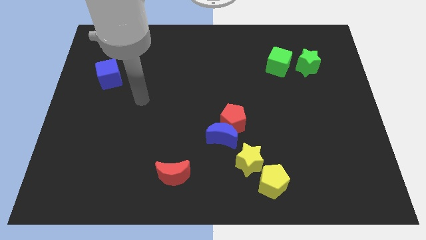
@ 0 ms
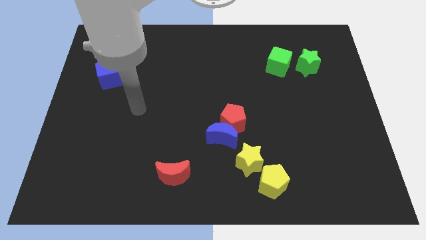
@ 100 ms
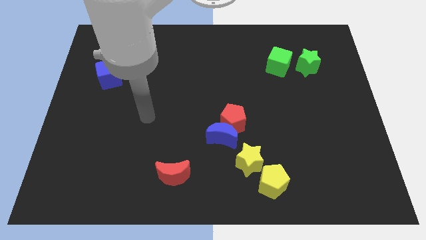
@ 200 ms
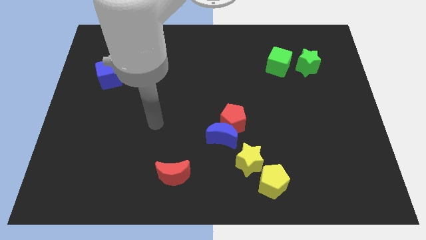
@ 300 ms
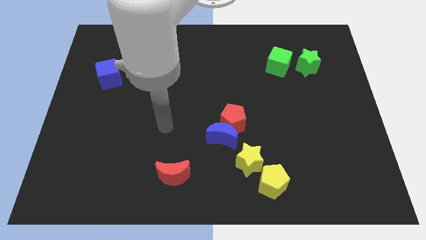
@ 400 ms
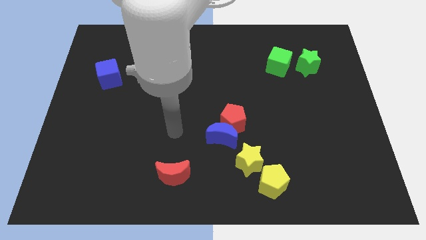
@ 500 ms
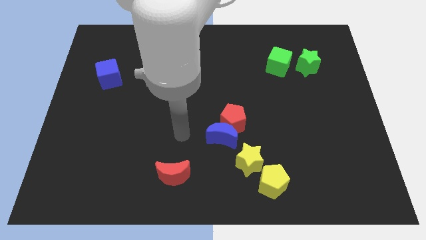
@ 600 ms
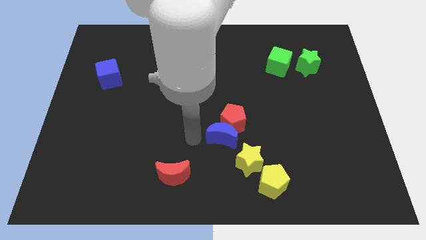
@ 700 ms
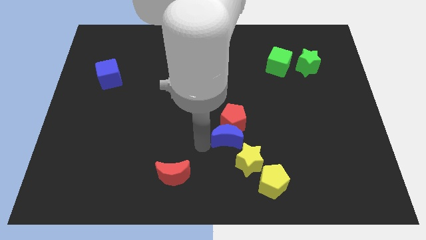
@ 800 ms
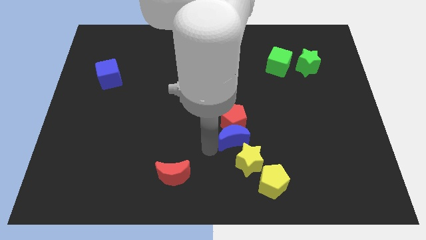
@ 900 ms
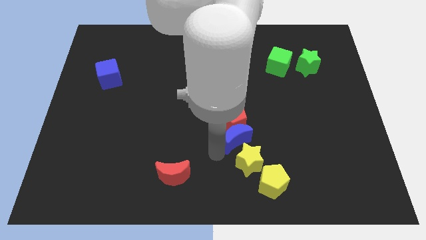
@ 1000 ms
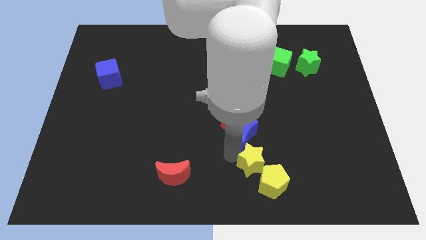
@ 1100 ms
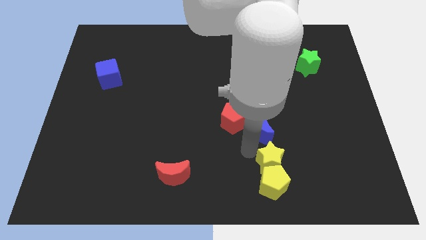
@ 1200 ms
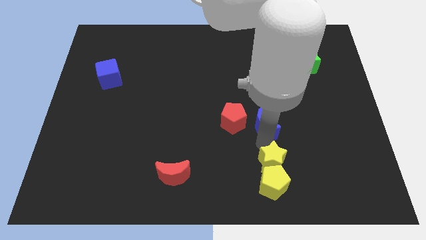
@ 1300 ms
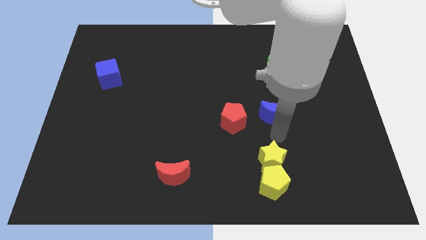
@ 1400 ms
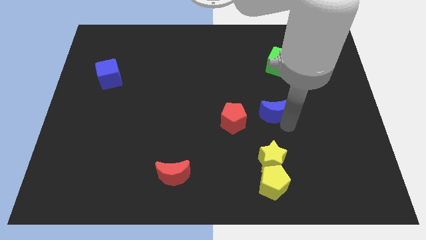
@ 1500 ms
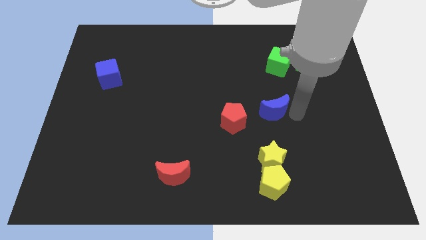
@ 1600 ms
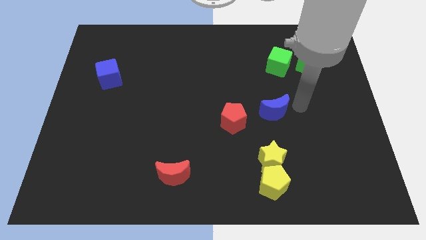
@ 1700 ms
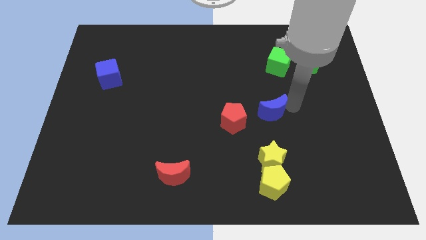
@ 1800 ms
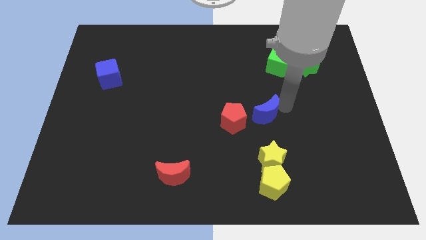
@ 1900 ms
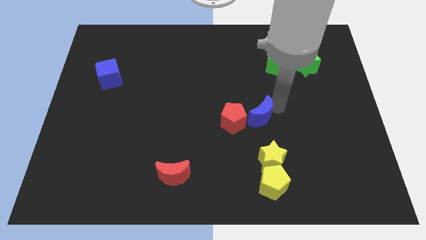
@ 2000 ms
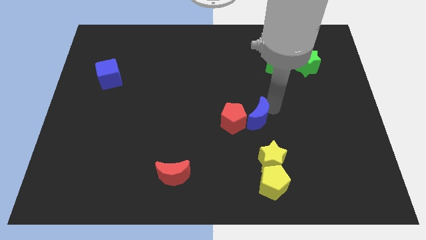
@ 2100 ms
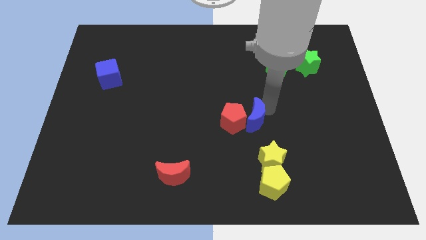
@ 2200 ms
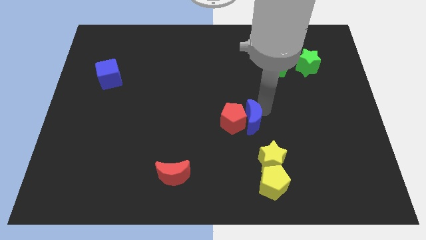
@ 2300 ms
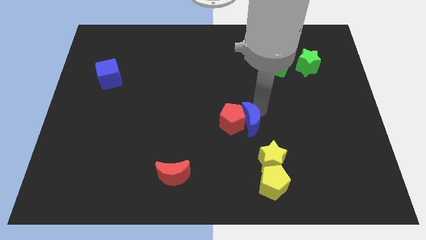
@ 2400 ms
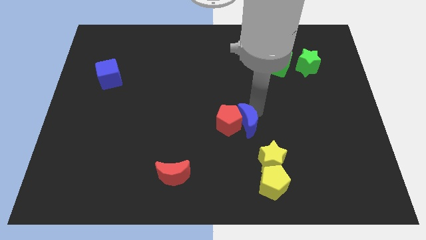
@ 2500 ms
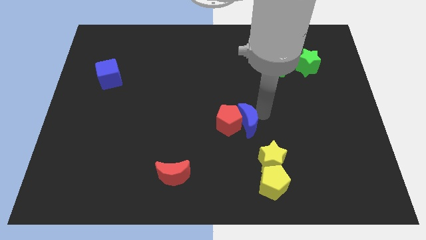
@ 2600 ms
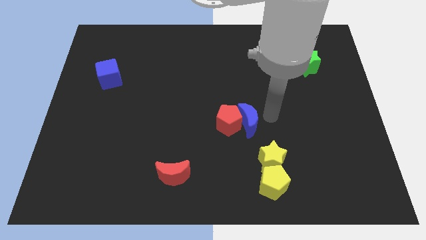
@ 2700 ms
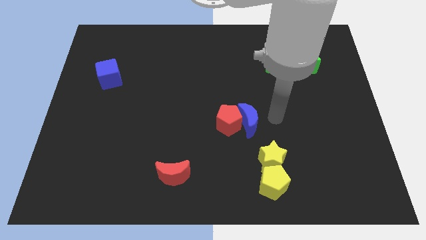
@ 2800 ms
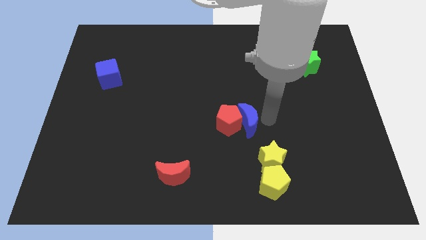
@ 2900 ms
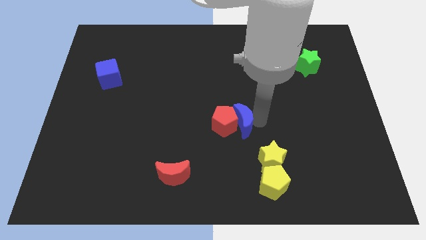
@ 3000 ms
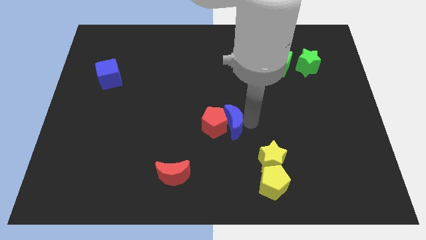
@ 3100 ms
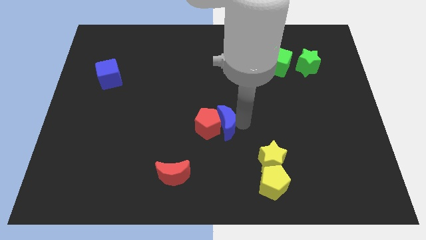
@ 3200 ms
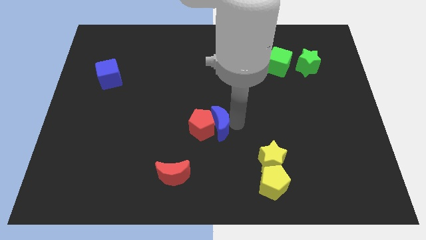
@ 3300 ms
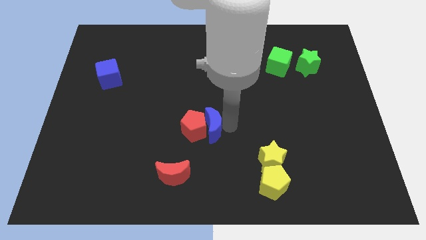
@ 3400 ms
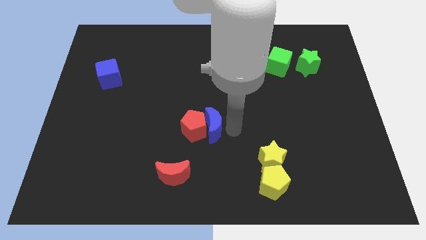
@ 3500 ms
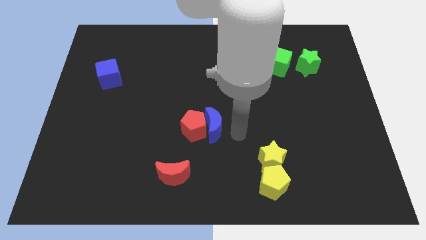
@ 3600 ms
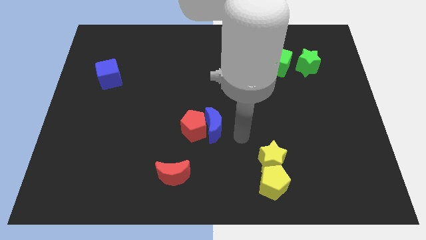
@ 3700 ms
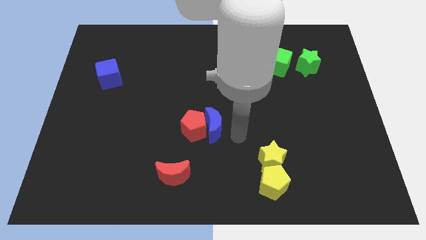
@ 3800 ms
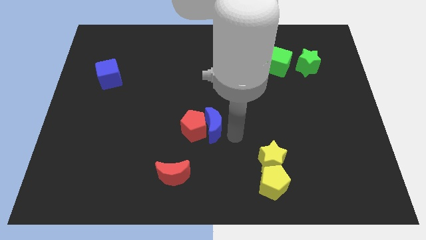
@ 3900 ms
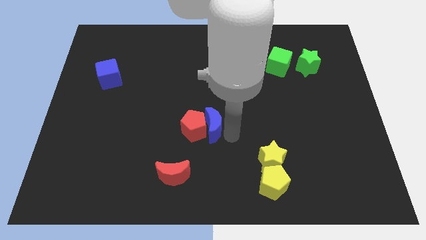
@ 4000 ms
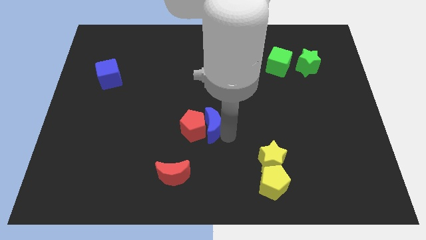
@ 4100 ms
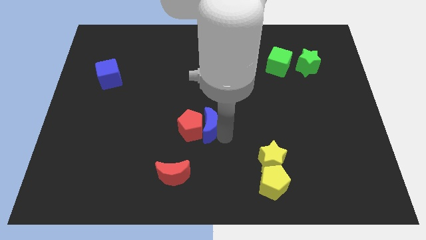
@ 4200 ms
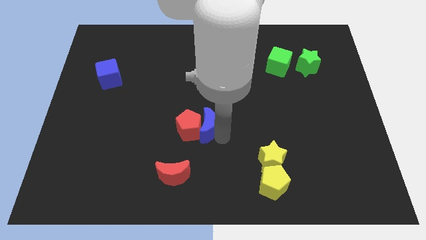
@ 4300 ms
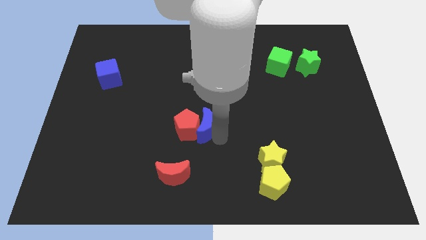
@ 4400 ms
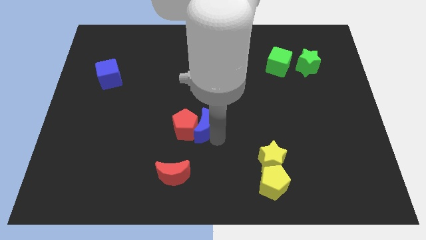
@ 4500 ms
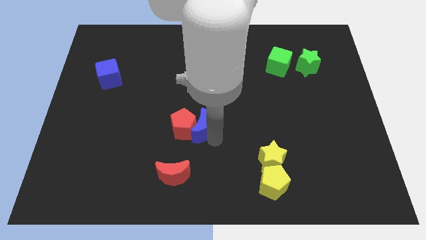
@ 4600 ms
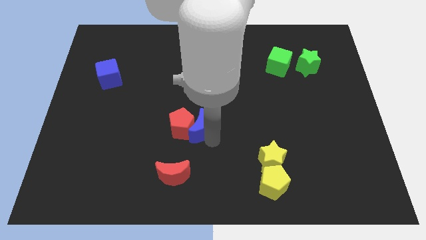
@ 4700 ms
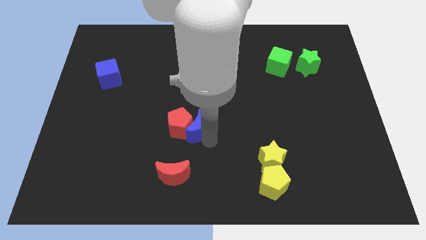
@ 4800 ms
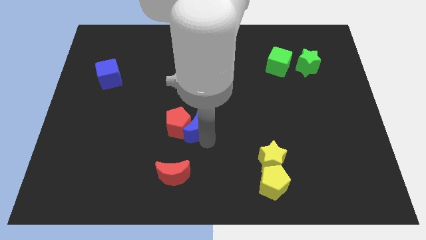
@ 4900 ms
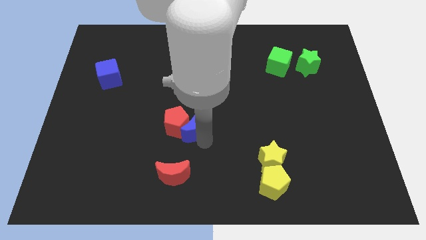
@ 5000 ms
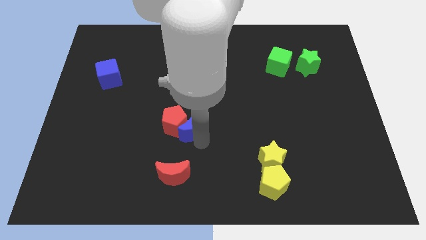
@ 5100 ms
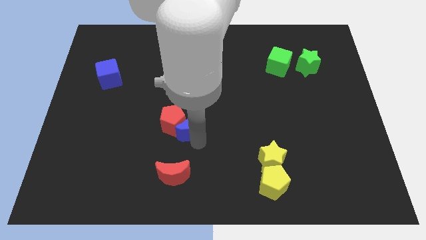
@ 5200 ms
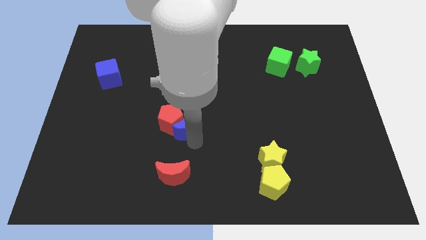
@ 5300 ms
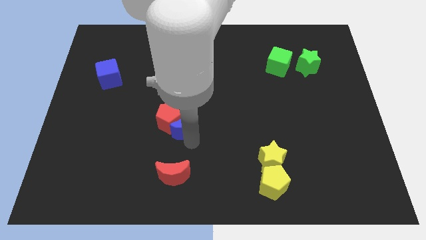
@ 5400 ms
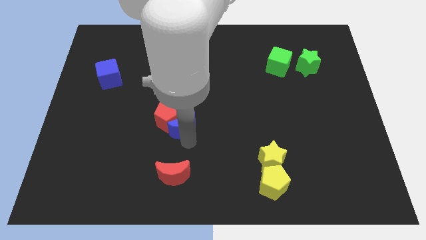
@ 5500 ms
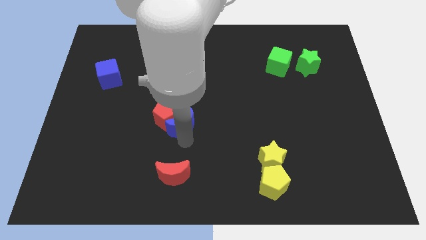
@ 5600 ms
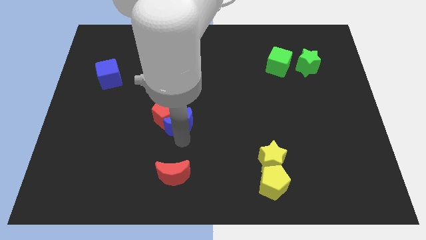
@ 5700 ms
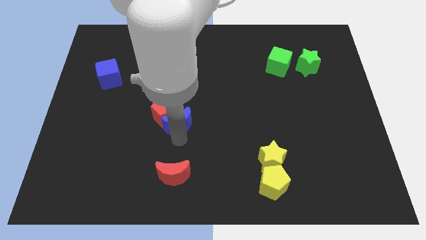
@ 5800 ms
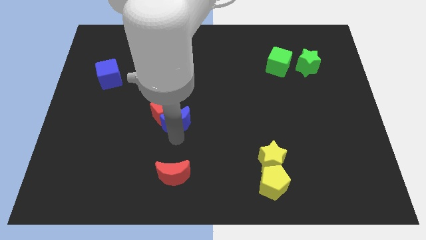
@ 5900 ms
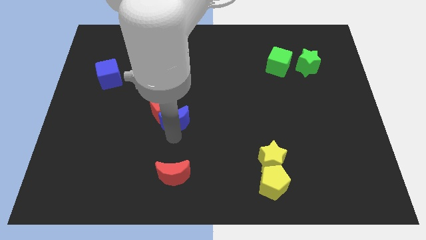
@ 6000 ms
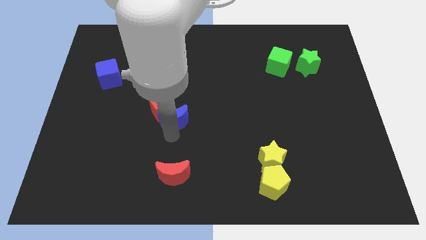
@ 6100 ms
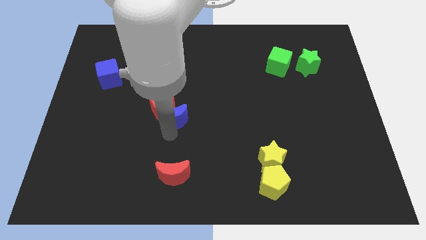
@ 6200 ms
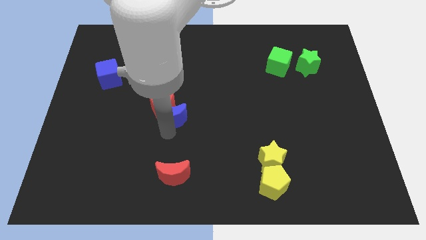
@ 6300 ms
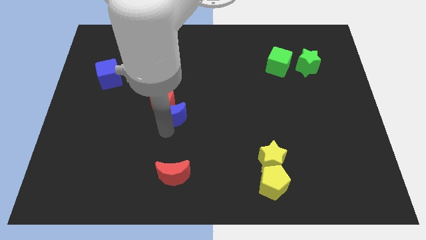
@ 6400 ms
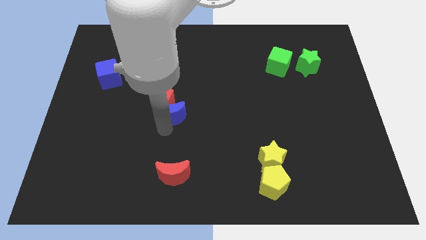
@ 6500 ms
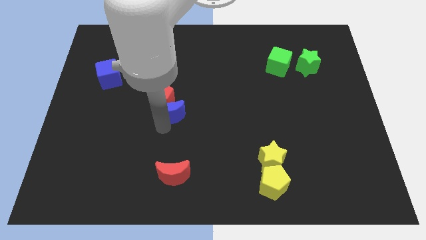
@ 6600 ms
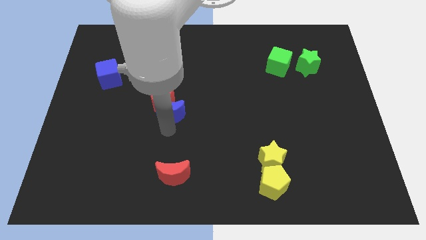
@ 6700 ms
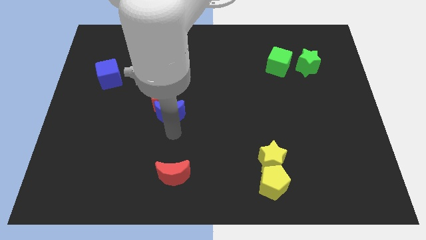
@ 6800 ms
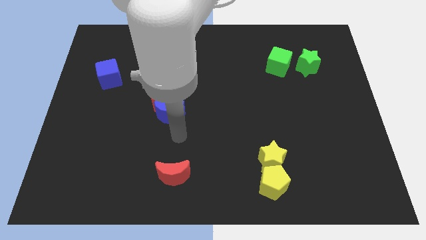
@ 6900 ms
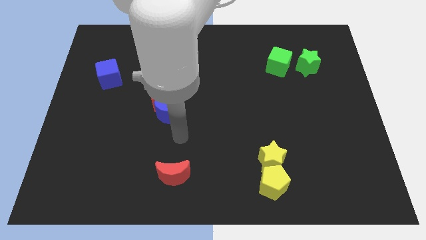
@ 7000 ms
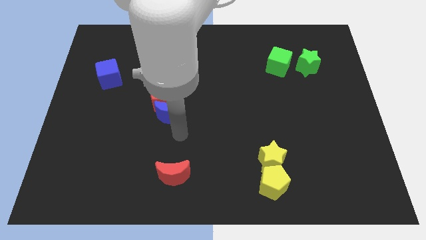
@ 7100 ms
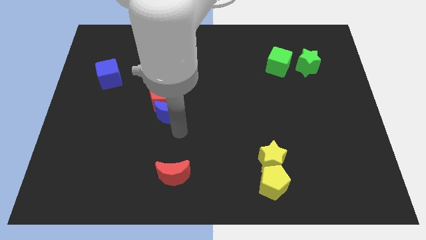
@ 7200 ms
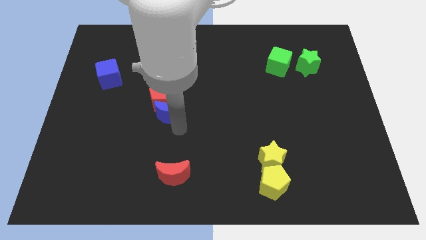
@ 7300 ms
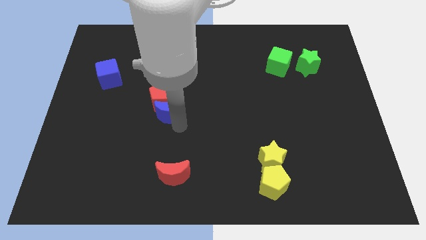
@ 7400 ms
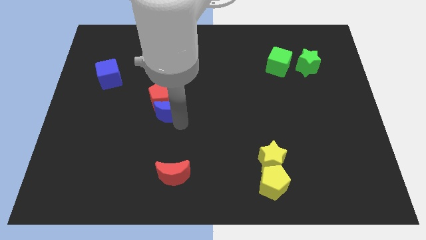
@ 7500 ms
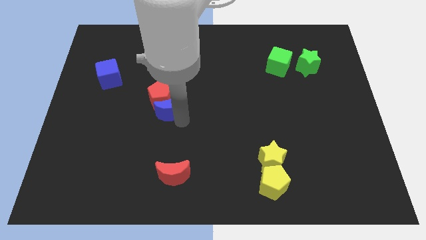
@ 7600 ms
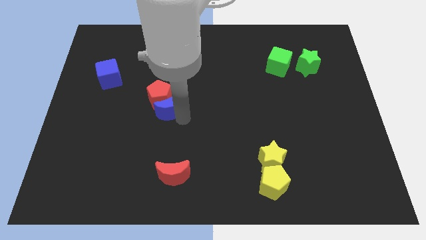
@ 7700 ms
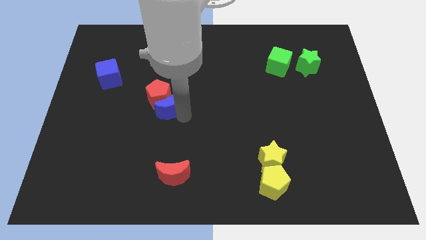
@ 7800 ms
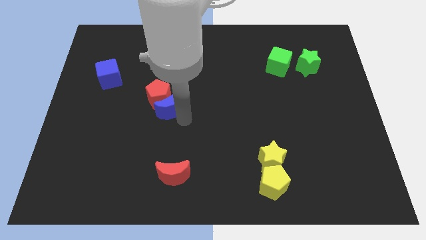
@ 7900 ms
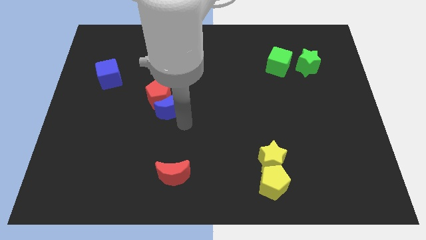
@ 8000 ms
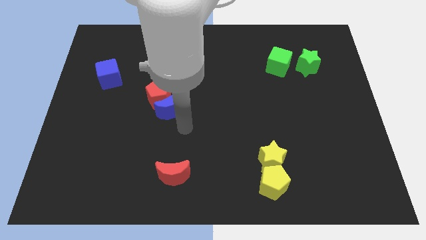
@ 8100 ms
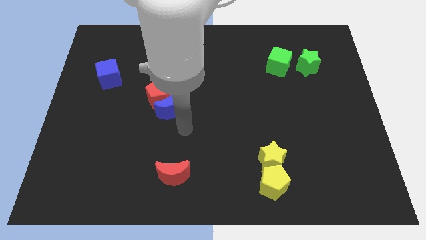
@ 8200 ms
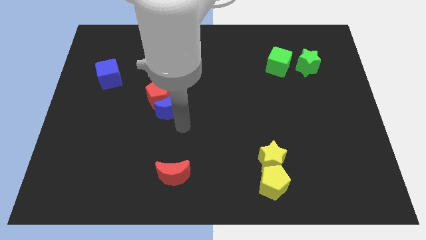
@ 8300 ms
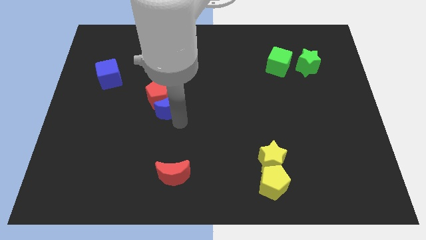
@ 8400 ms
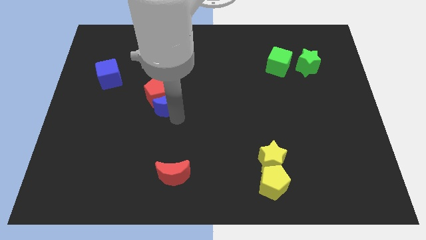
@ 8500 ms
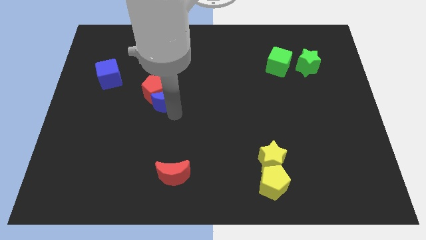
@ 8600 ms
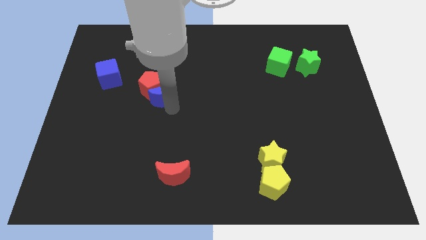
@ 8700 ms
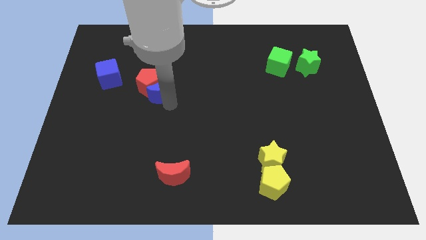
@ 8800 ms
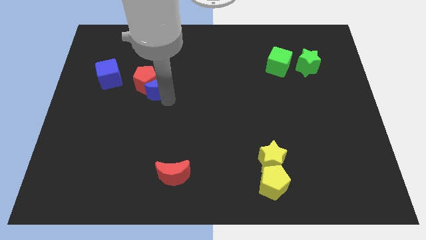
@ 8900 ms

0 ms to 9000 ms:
move the blue moon diagonally up and to the left
